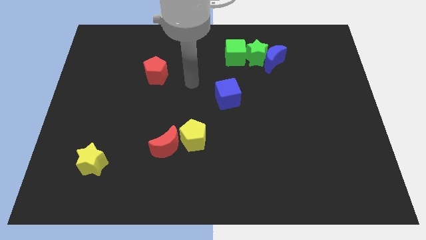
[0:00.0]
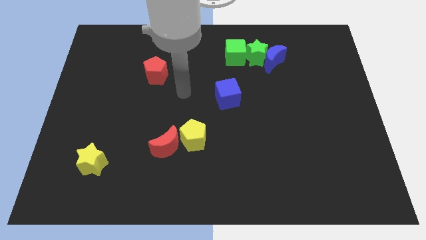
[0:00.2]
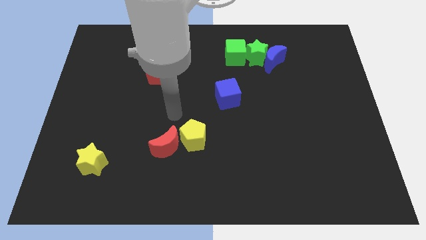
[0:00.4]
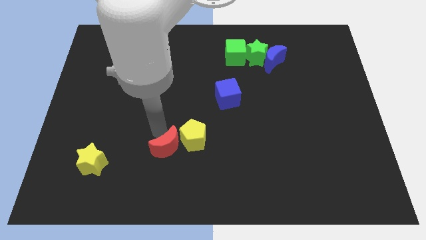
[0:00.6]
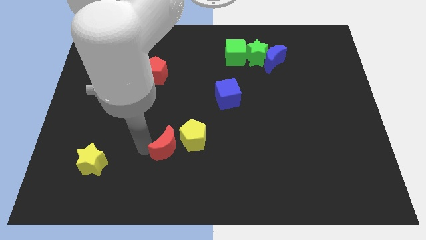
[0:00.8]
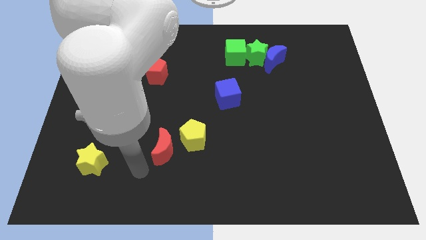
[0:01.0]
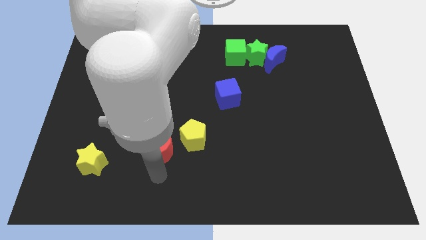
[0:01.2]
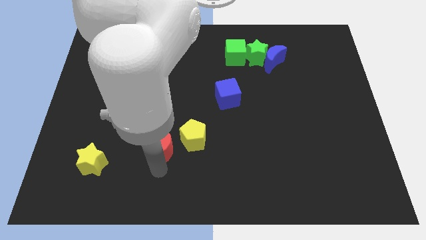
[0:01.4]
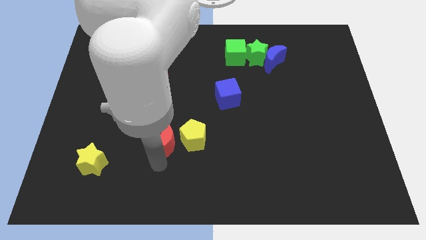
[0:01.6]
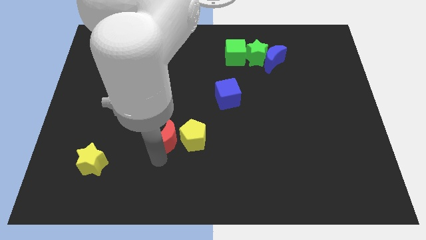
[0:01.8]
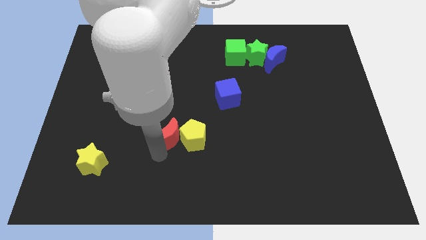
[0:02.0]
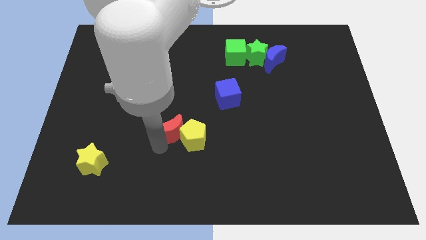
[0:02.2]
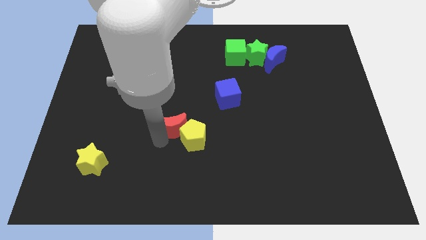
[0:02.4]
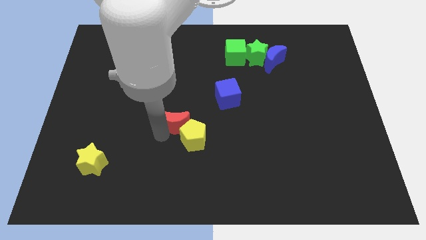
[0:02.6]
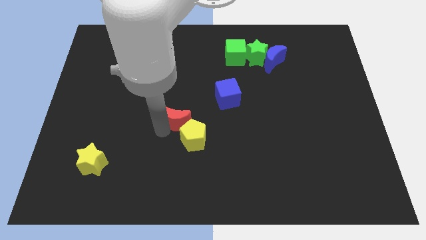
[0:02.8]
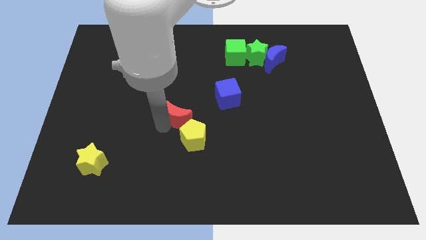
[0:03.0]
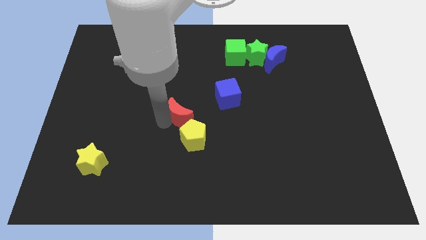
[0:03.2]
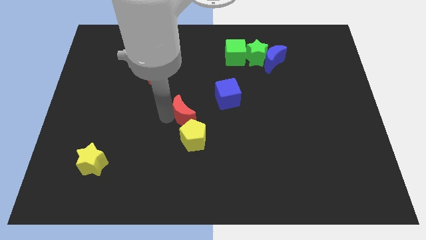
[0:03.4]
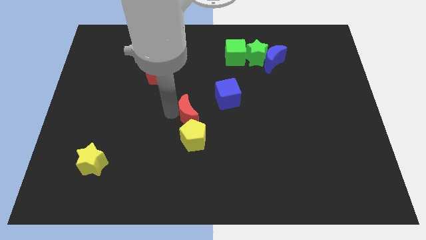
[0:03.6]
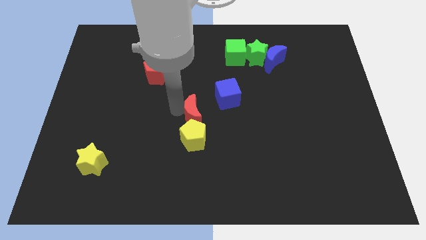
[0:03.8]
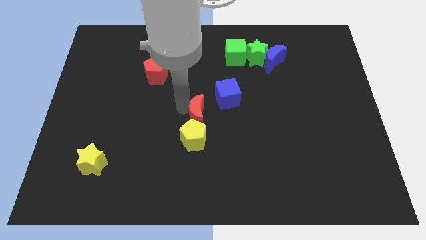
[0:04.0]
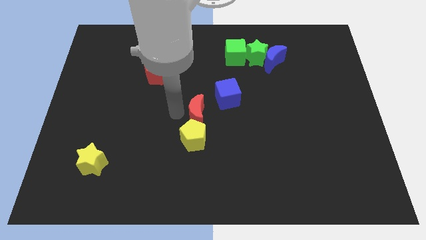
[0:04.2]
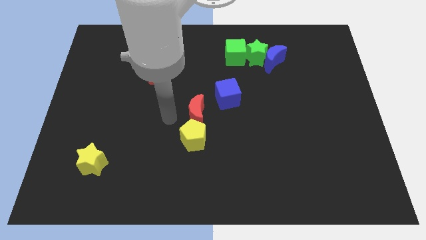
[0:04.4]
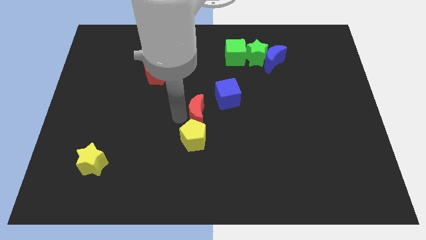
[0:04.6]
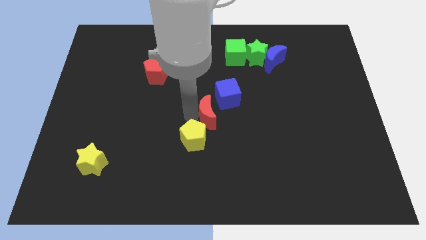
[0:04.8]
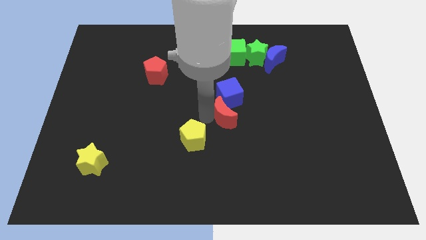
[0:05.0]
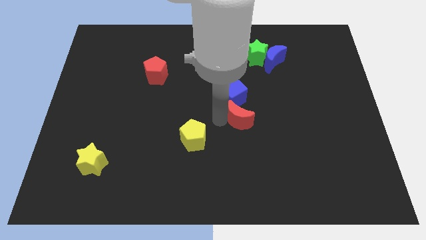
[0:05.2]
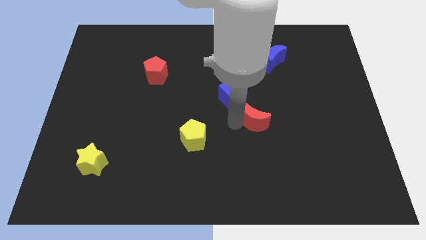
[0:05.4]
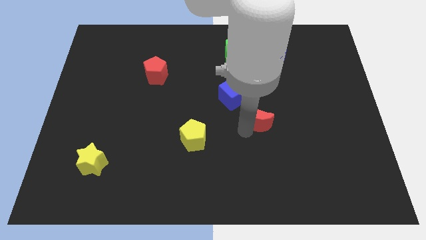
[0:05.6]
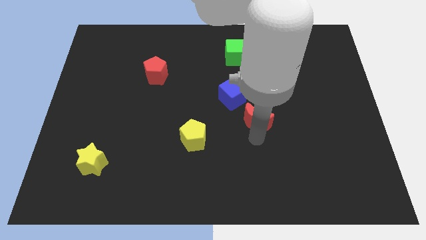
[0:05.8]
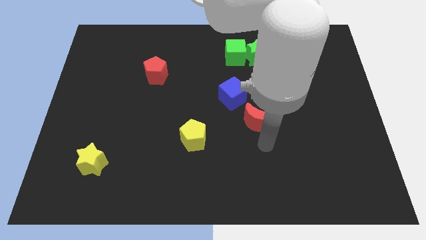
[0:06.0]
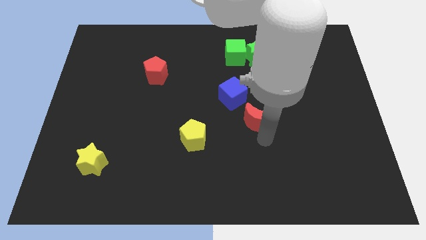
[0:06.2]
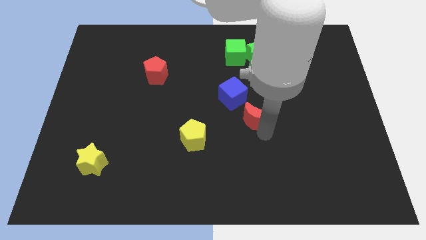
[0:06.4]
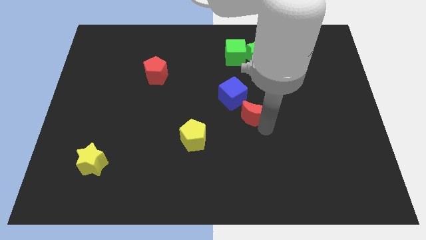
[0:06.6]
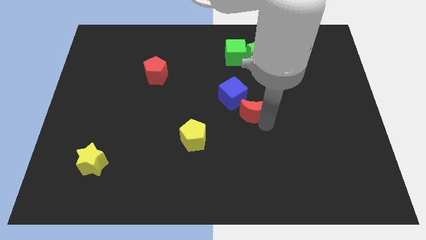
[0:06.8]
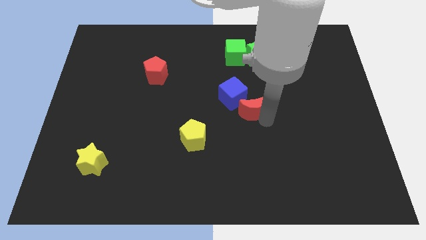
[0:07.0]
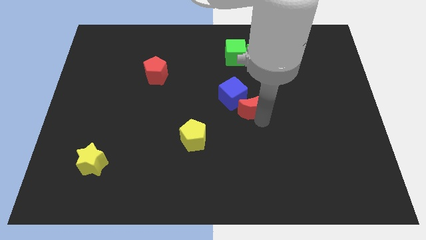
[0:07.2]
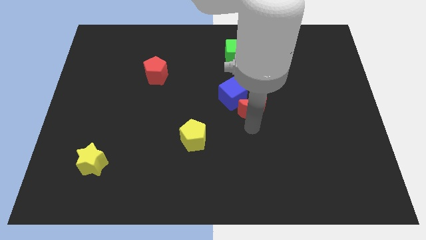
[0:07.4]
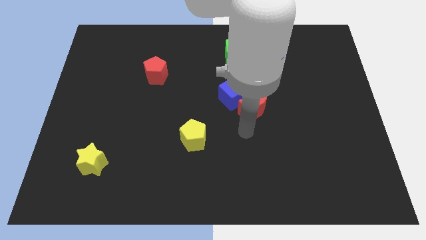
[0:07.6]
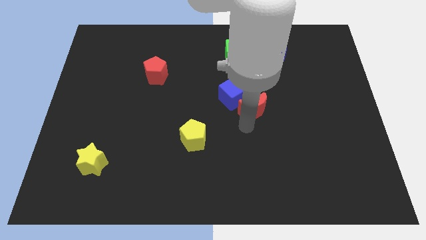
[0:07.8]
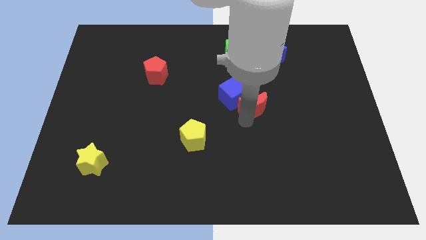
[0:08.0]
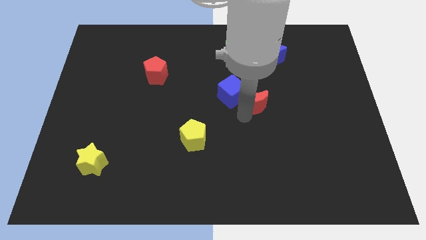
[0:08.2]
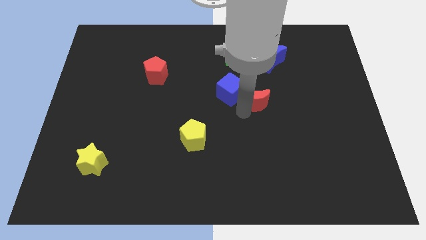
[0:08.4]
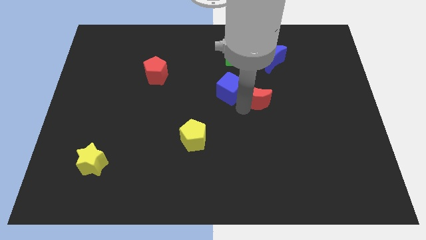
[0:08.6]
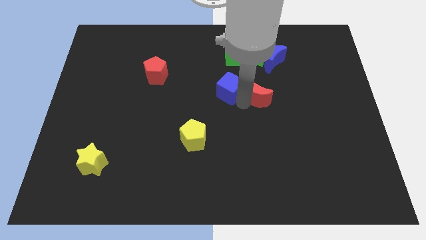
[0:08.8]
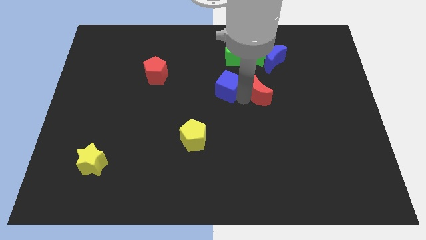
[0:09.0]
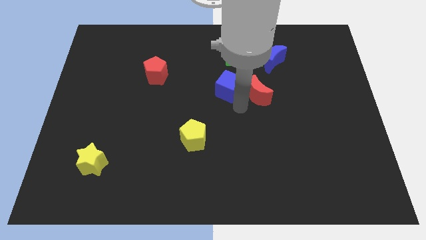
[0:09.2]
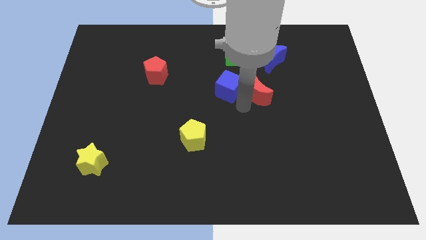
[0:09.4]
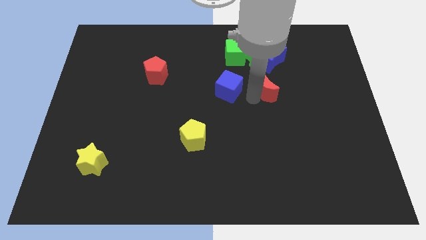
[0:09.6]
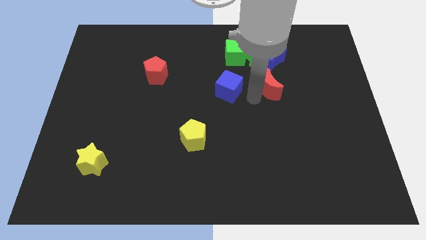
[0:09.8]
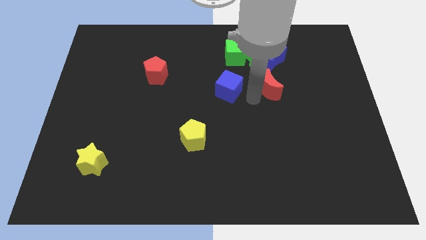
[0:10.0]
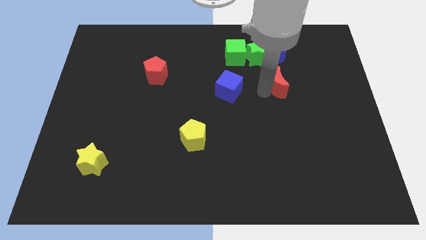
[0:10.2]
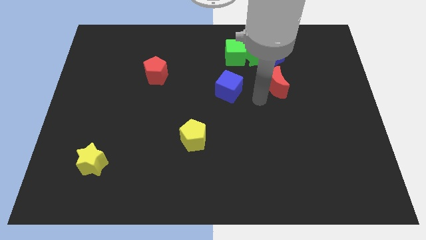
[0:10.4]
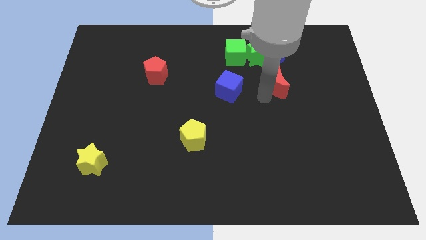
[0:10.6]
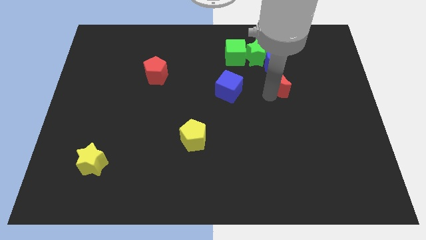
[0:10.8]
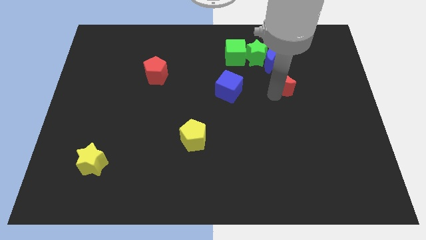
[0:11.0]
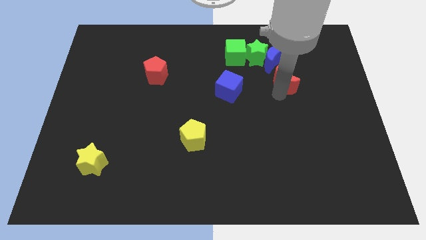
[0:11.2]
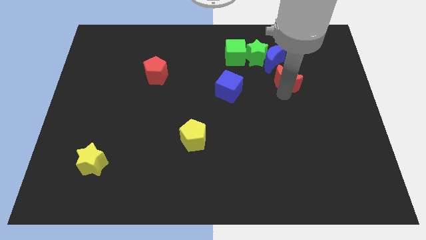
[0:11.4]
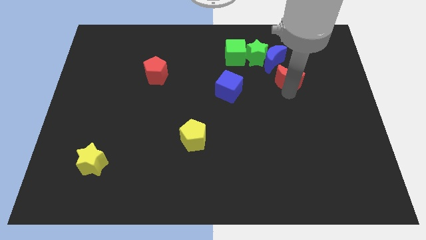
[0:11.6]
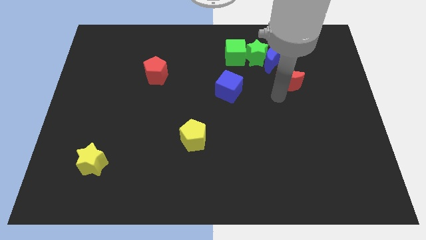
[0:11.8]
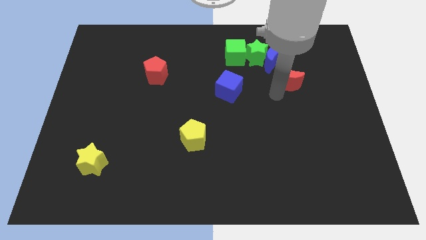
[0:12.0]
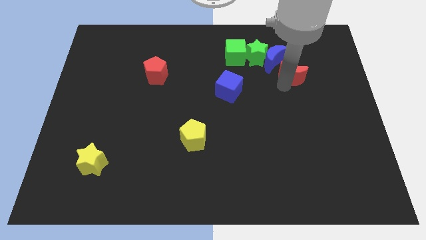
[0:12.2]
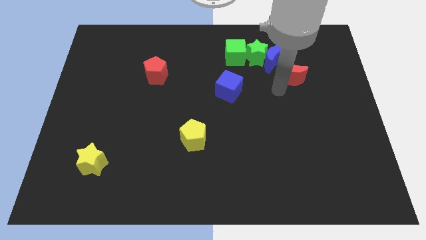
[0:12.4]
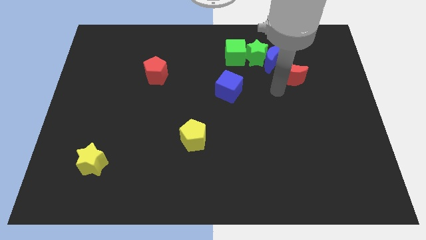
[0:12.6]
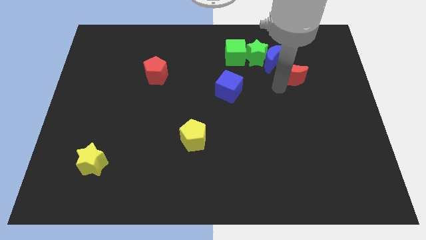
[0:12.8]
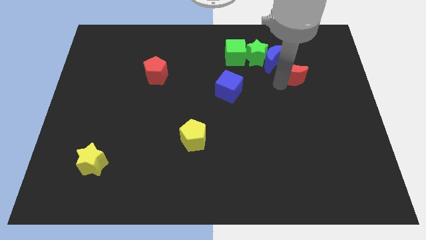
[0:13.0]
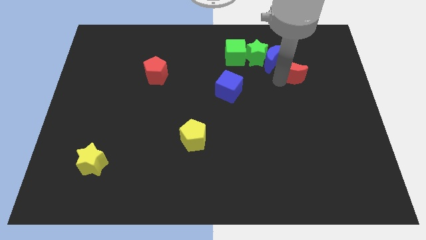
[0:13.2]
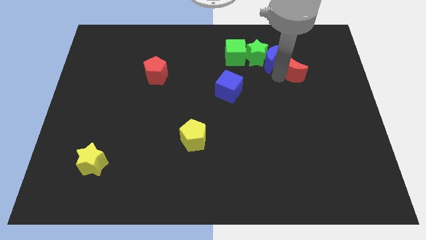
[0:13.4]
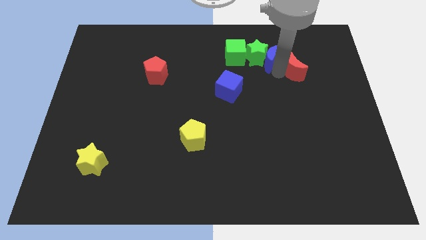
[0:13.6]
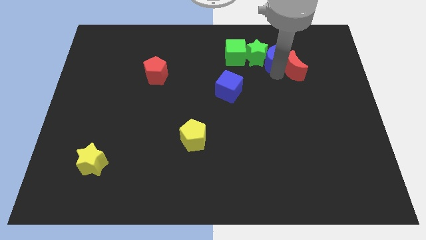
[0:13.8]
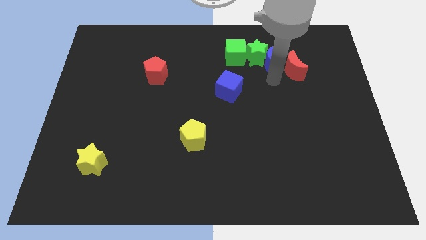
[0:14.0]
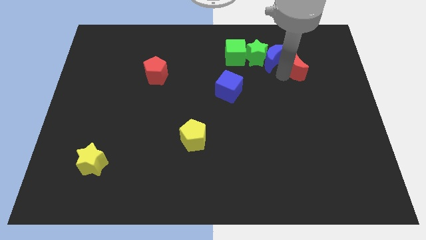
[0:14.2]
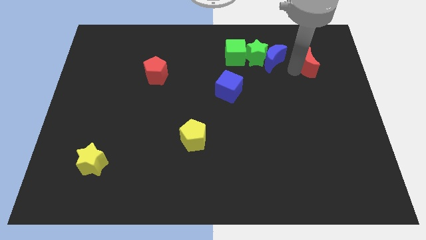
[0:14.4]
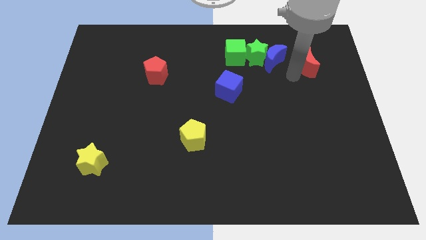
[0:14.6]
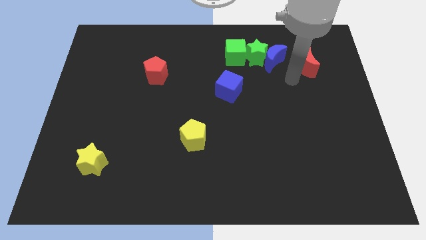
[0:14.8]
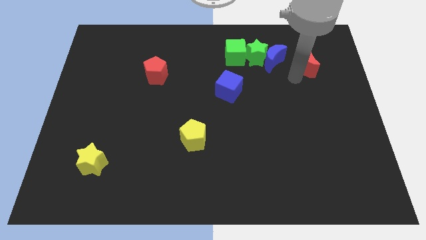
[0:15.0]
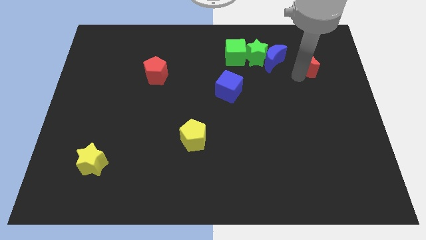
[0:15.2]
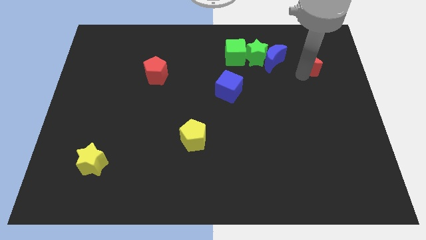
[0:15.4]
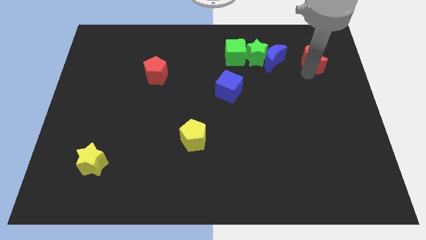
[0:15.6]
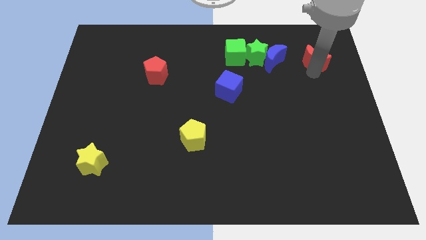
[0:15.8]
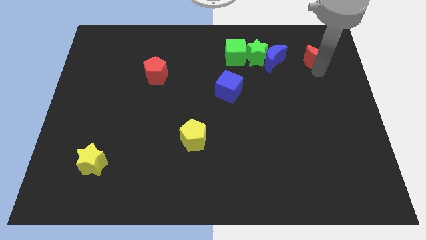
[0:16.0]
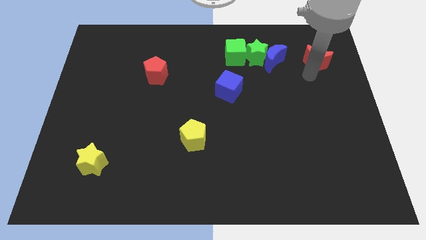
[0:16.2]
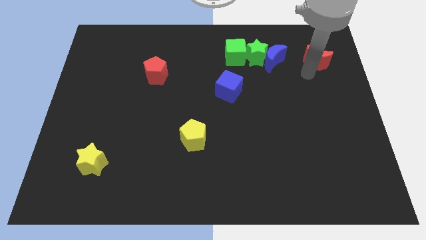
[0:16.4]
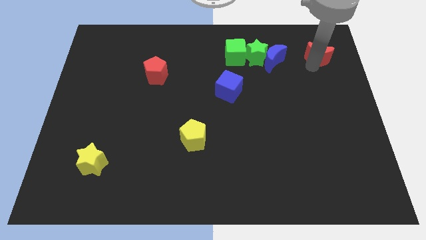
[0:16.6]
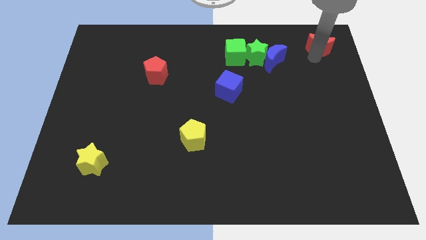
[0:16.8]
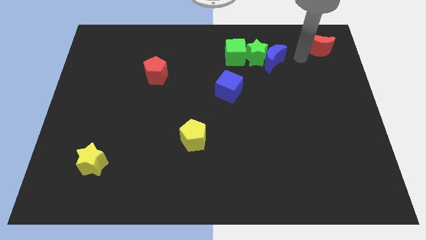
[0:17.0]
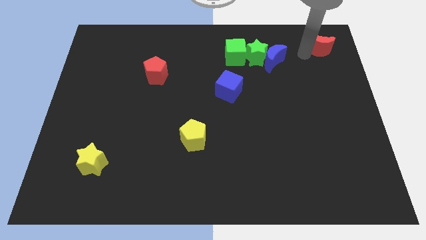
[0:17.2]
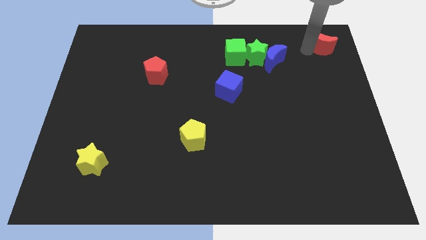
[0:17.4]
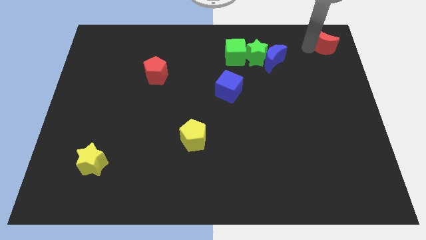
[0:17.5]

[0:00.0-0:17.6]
push the red moon to the top right
